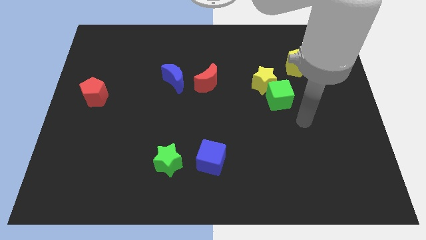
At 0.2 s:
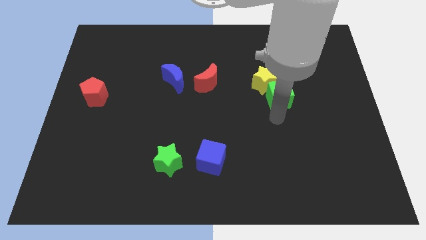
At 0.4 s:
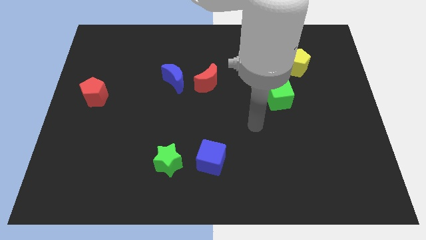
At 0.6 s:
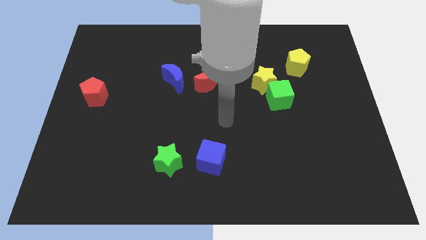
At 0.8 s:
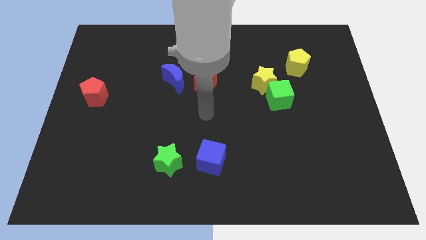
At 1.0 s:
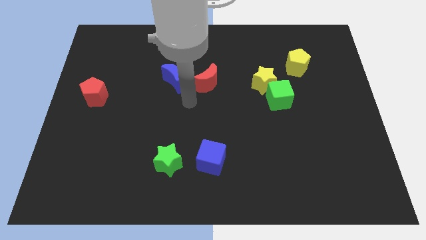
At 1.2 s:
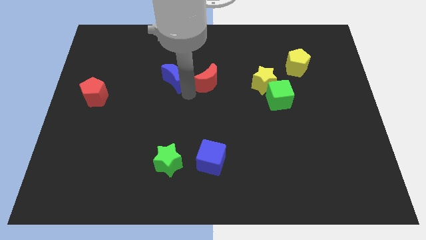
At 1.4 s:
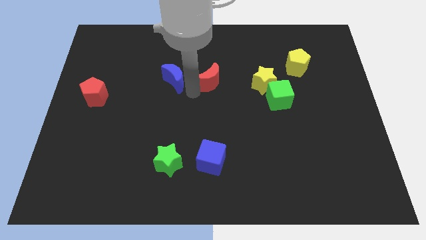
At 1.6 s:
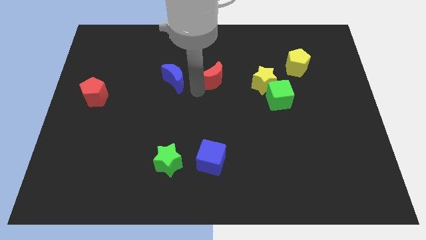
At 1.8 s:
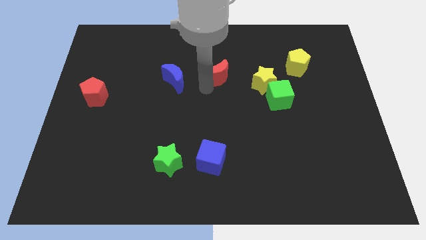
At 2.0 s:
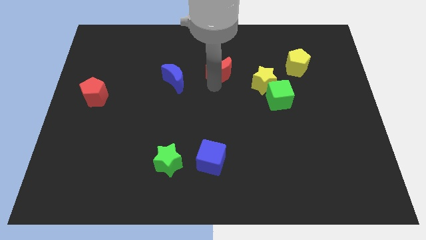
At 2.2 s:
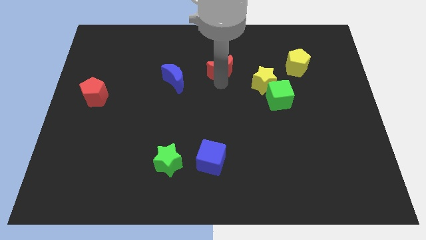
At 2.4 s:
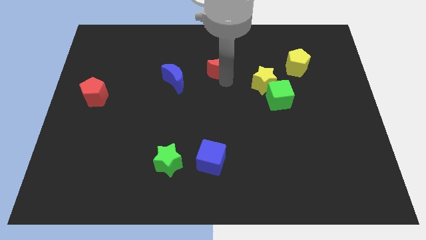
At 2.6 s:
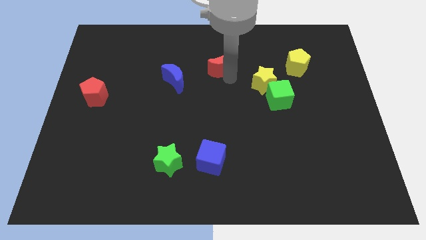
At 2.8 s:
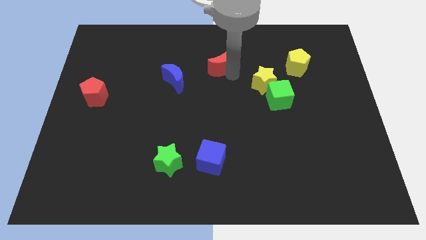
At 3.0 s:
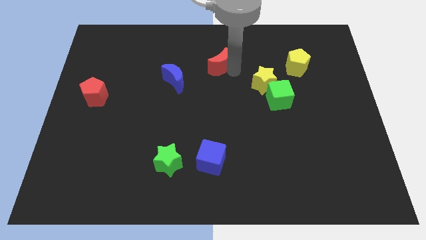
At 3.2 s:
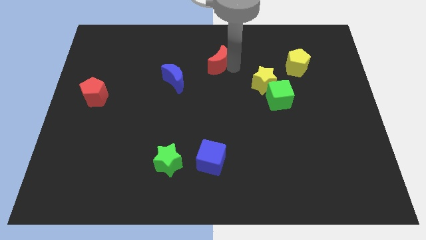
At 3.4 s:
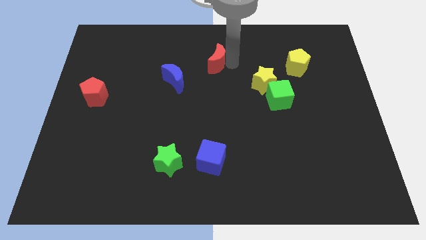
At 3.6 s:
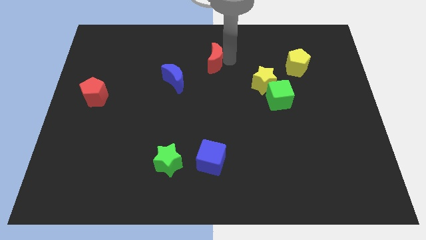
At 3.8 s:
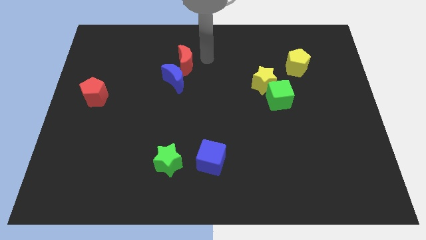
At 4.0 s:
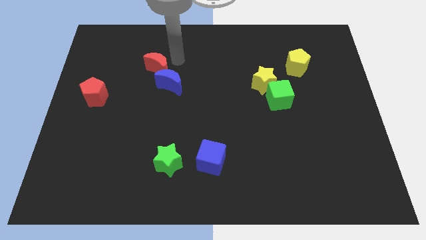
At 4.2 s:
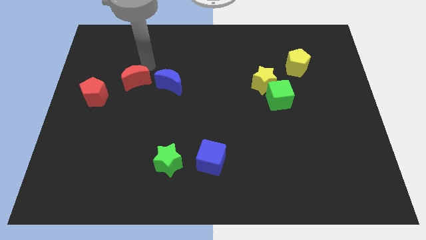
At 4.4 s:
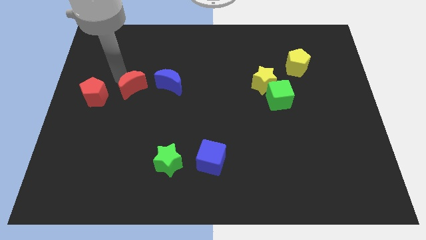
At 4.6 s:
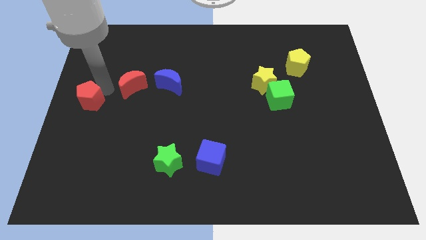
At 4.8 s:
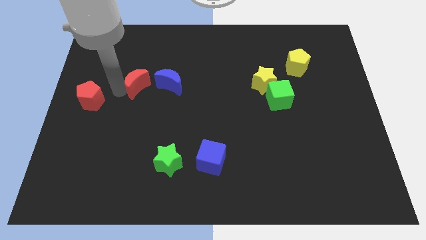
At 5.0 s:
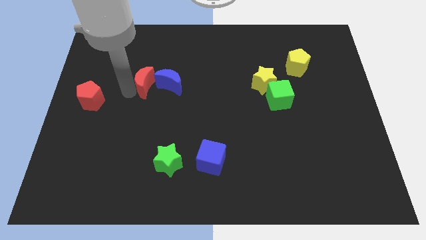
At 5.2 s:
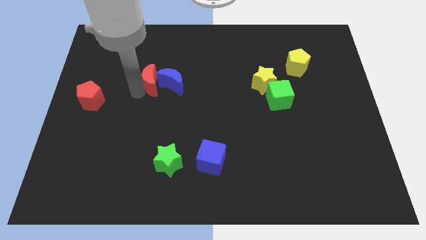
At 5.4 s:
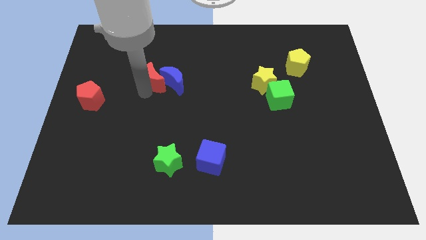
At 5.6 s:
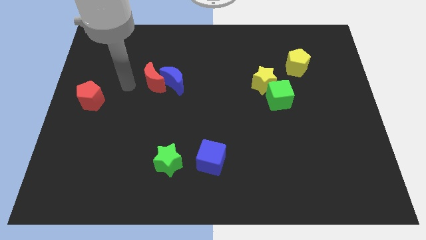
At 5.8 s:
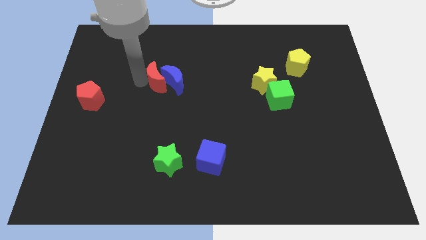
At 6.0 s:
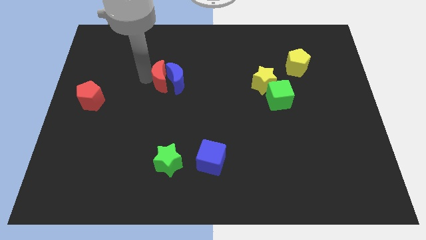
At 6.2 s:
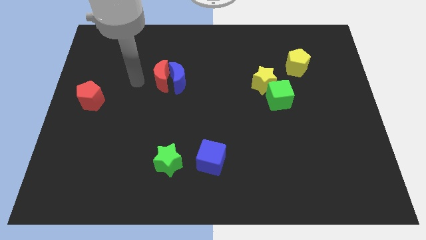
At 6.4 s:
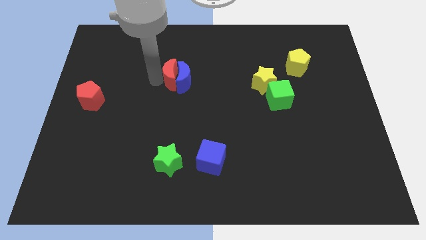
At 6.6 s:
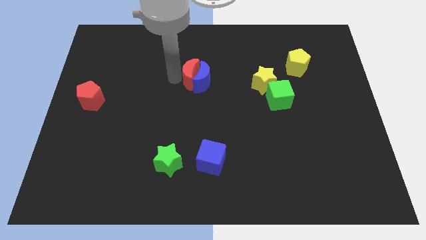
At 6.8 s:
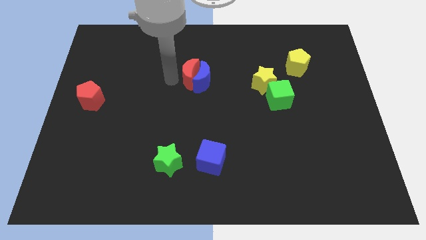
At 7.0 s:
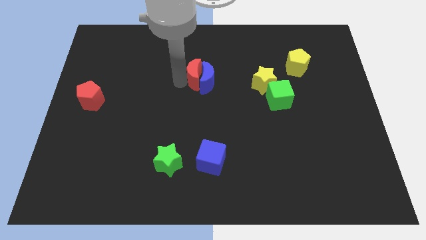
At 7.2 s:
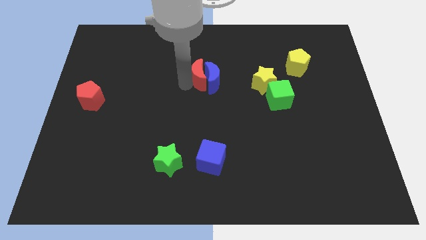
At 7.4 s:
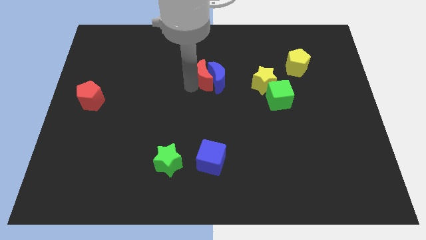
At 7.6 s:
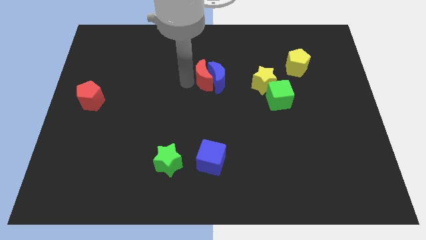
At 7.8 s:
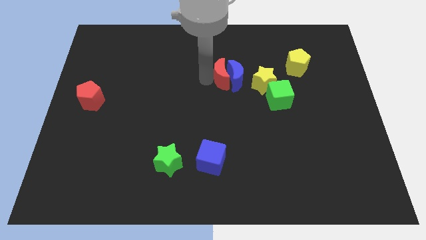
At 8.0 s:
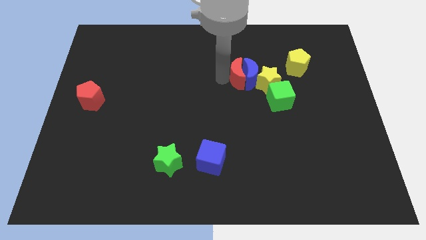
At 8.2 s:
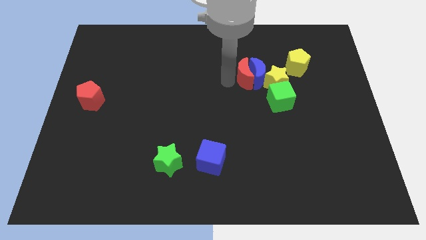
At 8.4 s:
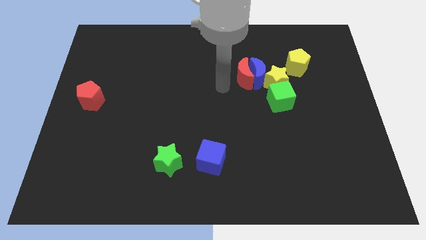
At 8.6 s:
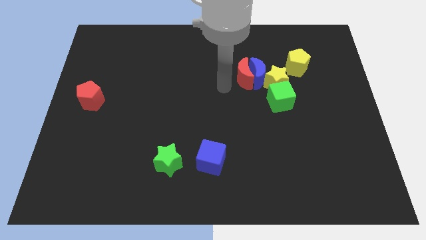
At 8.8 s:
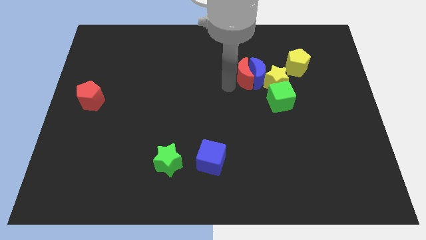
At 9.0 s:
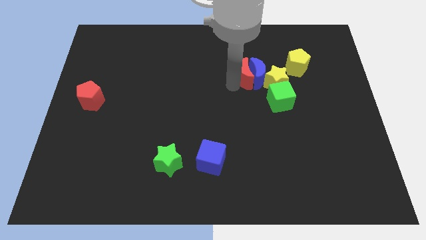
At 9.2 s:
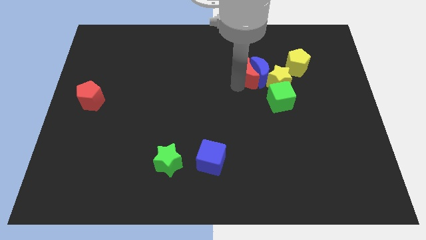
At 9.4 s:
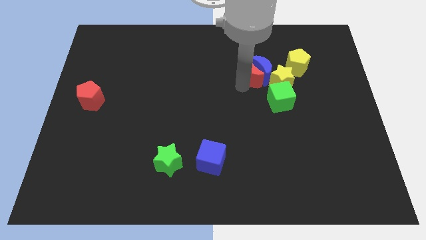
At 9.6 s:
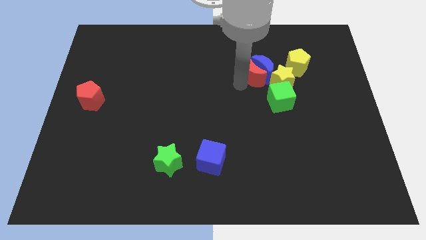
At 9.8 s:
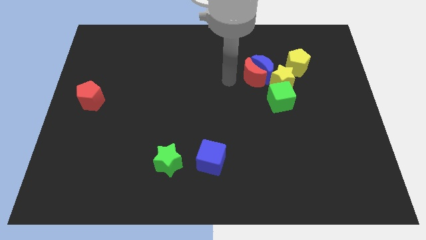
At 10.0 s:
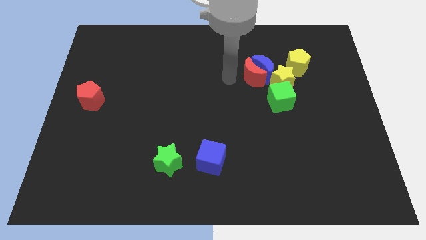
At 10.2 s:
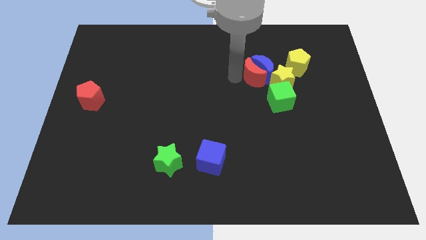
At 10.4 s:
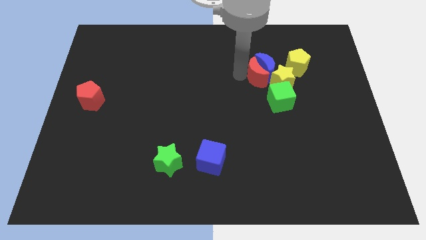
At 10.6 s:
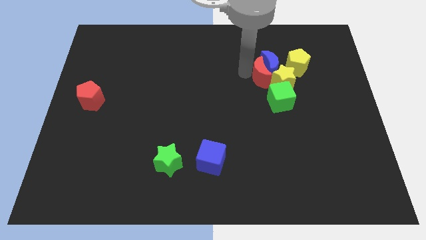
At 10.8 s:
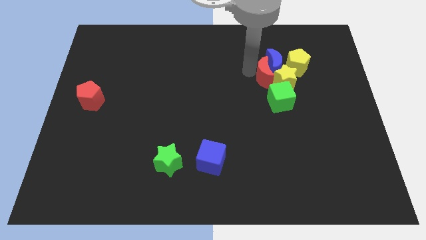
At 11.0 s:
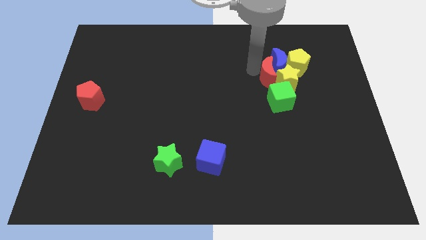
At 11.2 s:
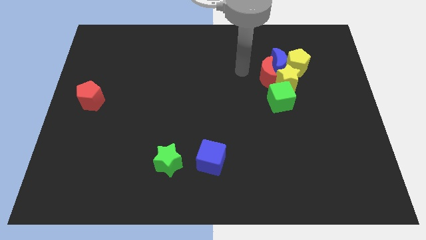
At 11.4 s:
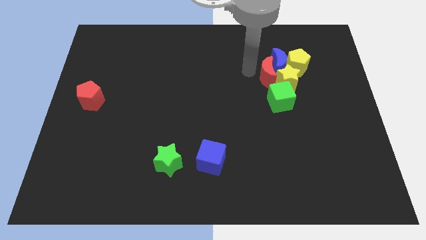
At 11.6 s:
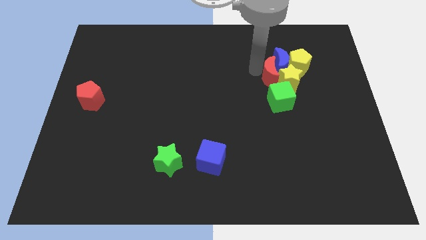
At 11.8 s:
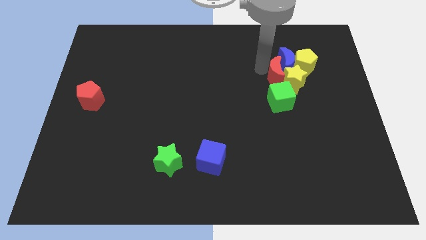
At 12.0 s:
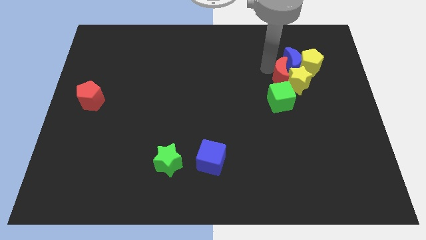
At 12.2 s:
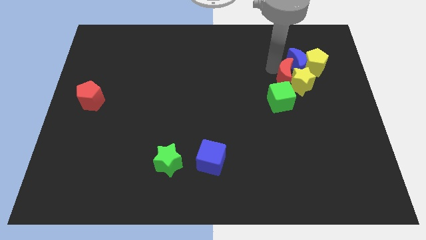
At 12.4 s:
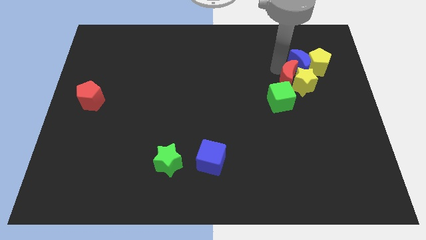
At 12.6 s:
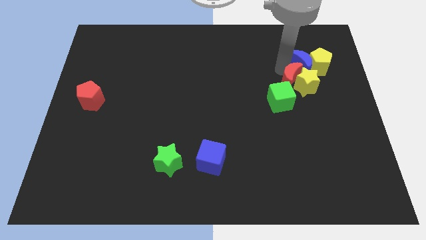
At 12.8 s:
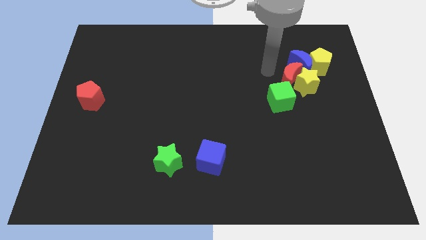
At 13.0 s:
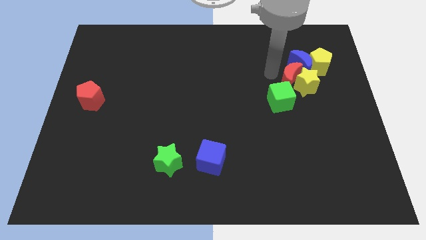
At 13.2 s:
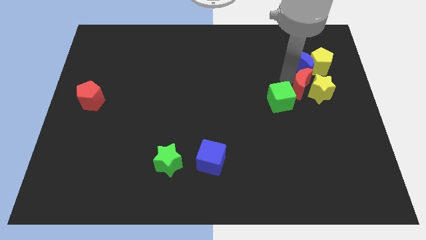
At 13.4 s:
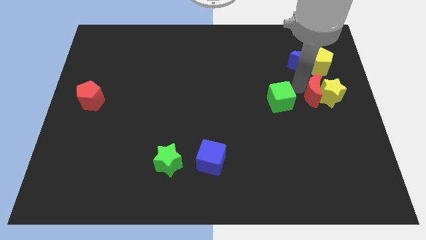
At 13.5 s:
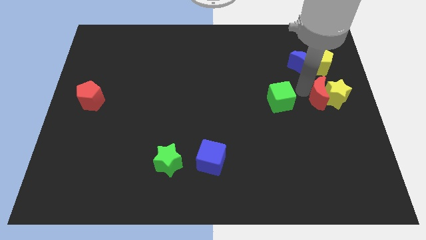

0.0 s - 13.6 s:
slide the red moon to the right side

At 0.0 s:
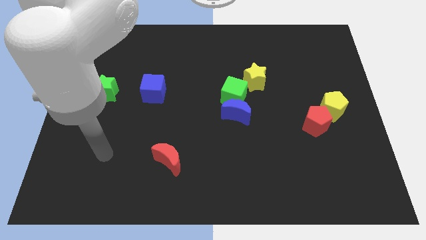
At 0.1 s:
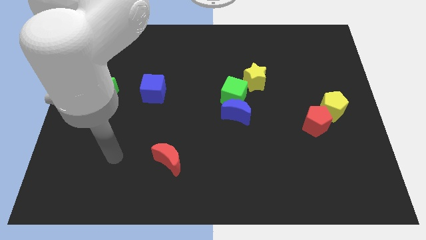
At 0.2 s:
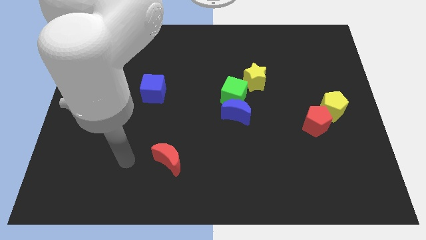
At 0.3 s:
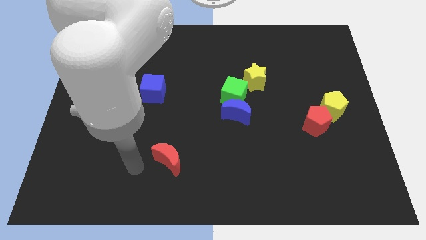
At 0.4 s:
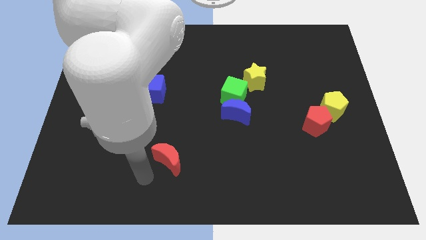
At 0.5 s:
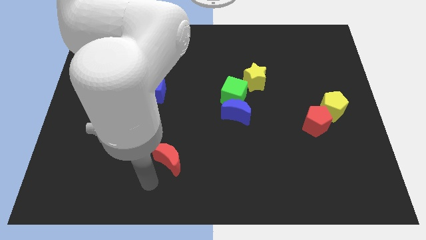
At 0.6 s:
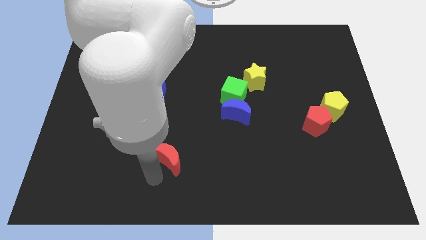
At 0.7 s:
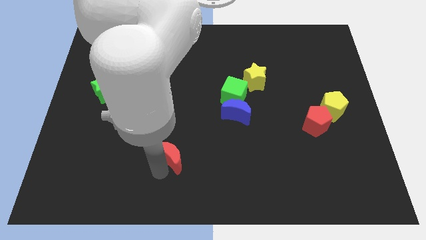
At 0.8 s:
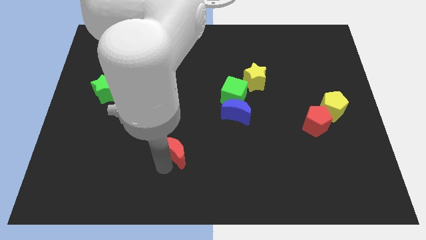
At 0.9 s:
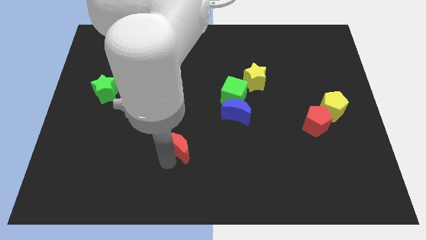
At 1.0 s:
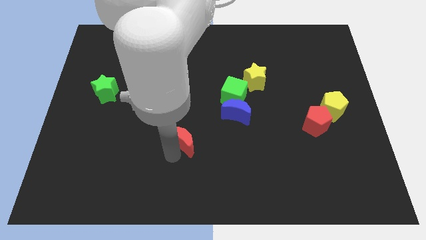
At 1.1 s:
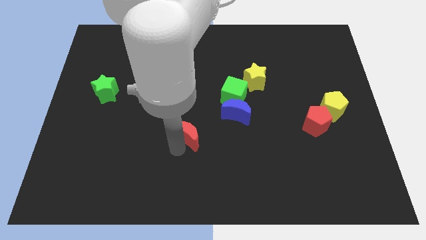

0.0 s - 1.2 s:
put the red moon to the middle of the board
